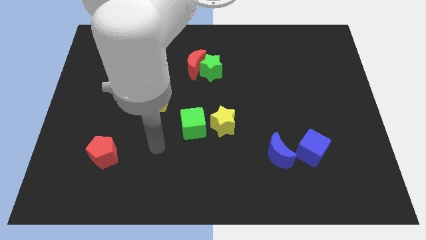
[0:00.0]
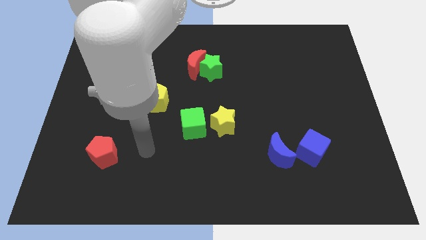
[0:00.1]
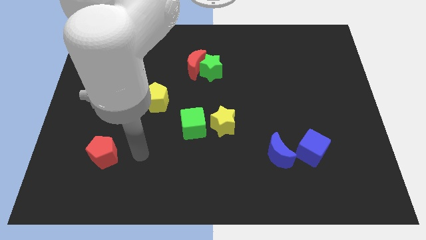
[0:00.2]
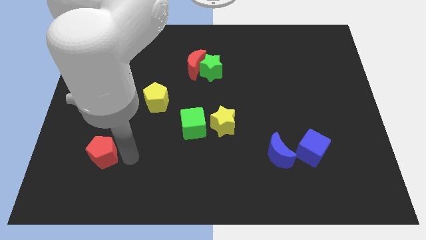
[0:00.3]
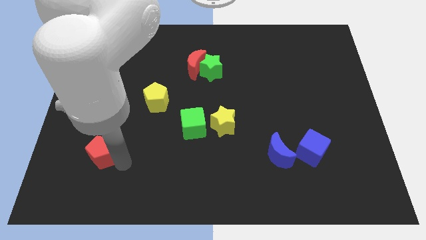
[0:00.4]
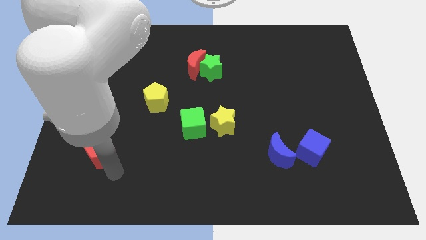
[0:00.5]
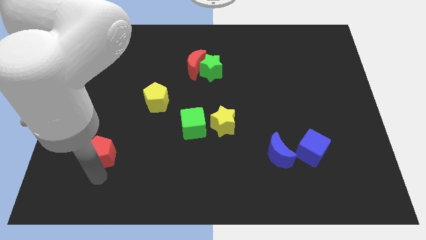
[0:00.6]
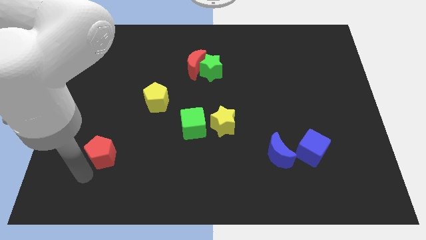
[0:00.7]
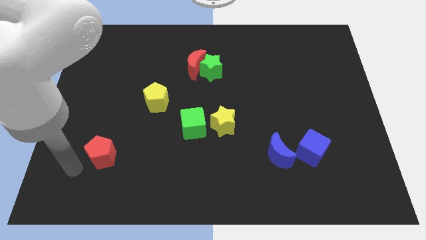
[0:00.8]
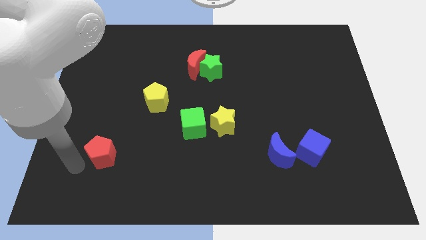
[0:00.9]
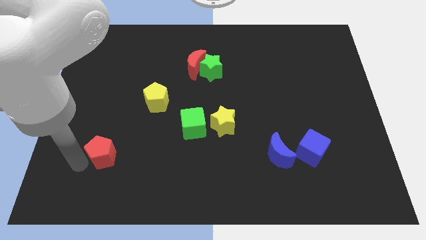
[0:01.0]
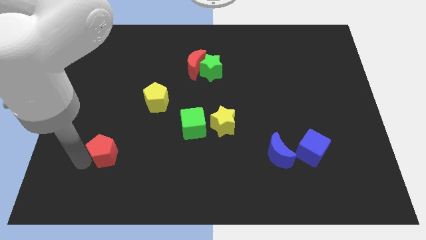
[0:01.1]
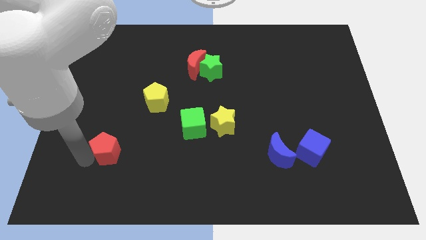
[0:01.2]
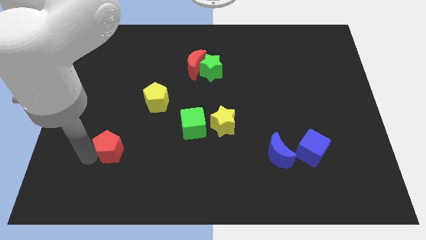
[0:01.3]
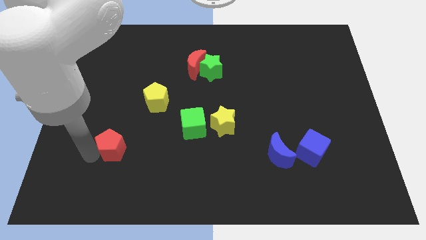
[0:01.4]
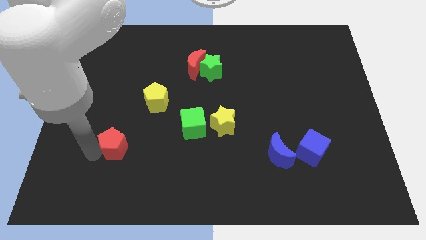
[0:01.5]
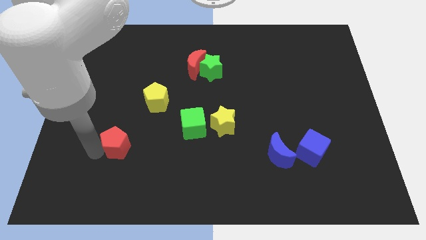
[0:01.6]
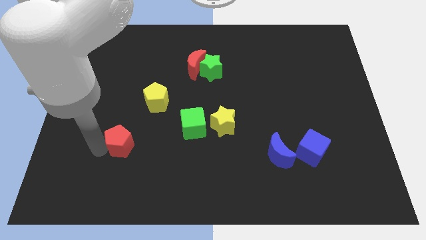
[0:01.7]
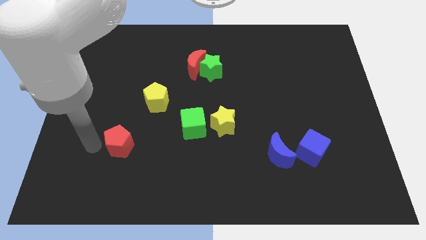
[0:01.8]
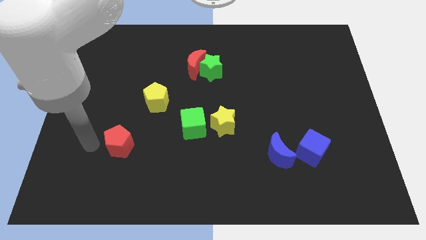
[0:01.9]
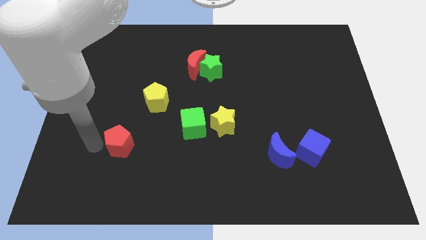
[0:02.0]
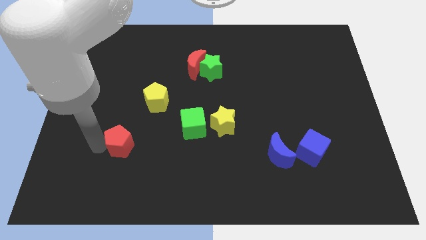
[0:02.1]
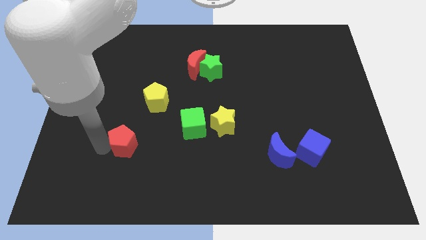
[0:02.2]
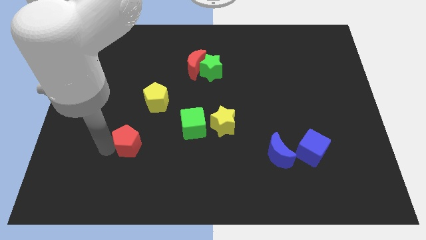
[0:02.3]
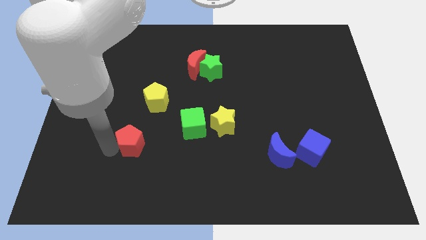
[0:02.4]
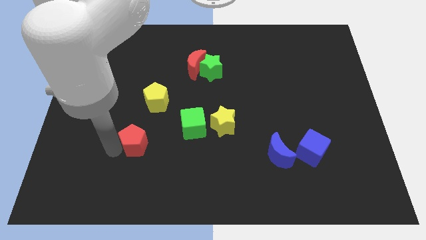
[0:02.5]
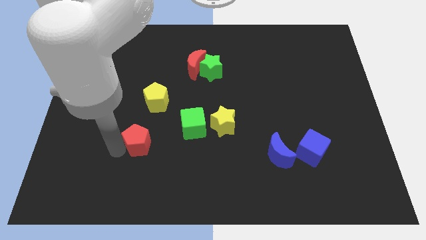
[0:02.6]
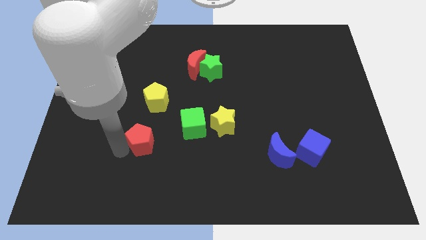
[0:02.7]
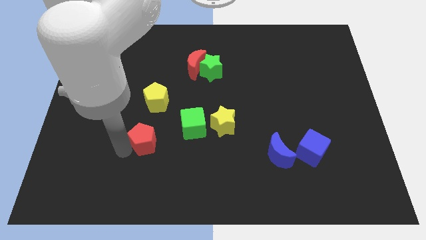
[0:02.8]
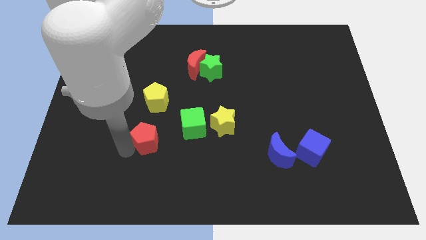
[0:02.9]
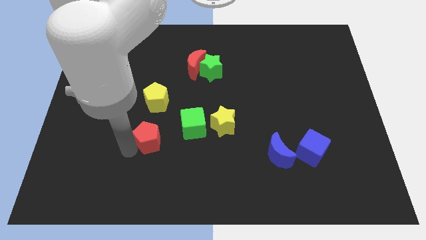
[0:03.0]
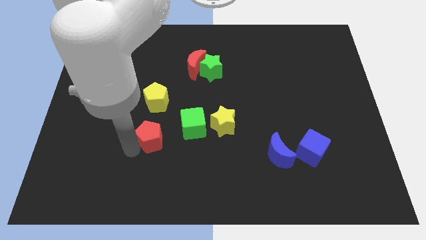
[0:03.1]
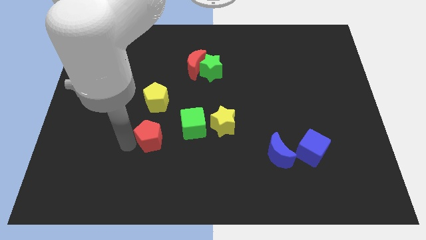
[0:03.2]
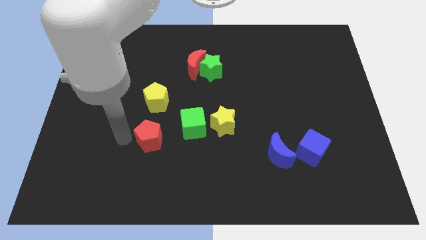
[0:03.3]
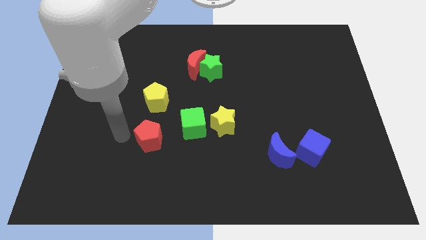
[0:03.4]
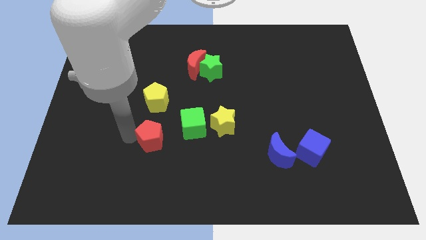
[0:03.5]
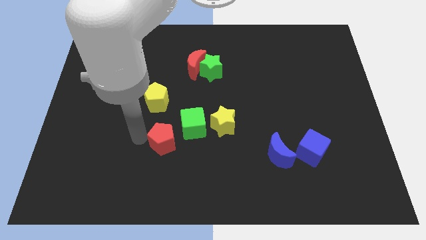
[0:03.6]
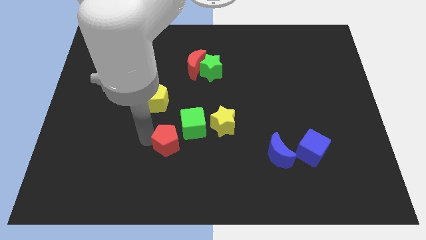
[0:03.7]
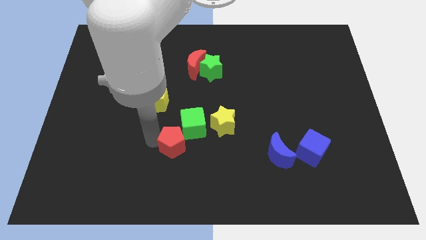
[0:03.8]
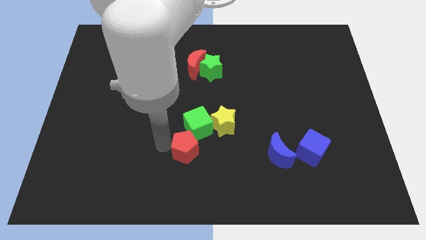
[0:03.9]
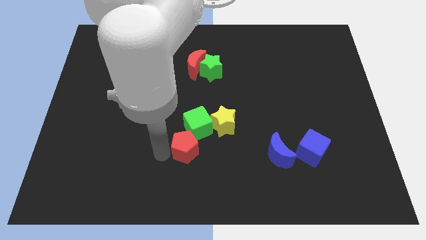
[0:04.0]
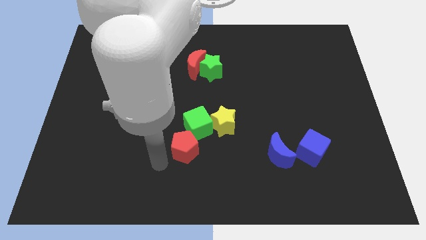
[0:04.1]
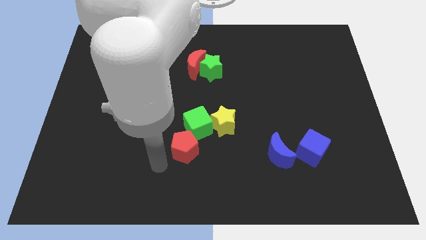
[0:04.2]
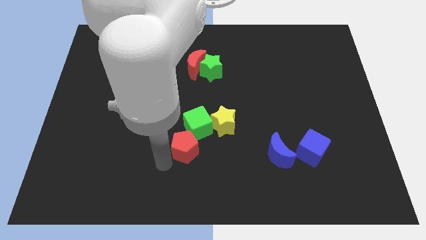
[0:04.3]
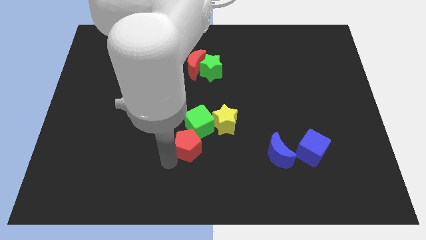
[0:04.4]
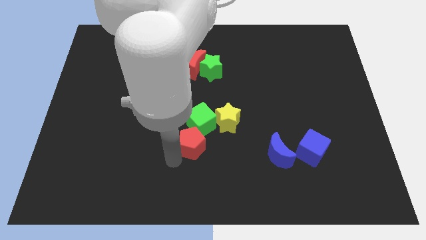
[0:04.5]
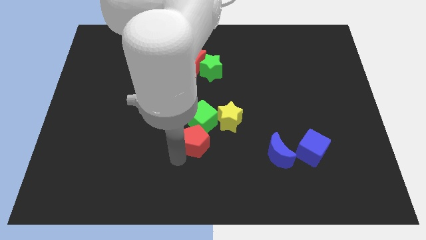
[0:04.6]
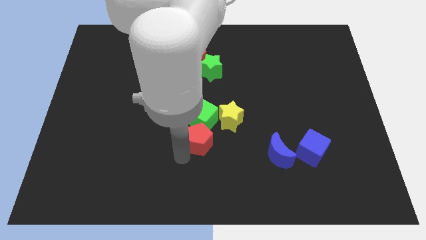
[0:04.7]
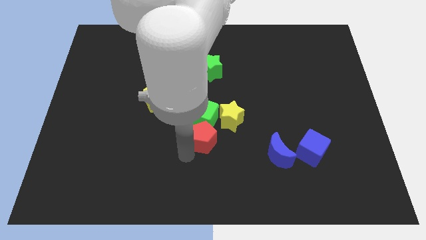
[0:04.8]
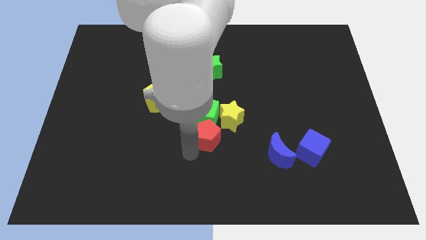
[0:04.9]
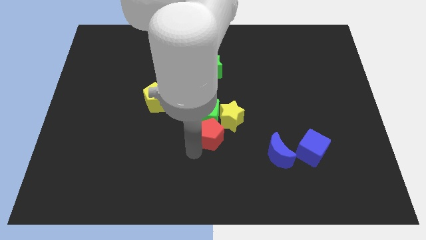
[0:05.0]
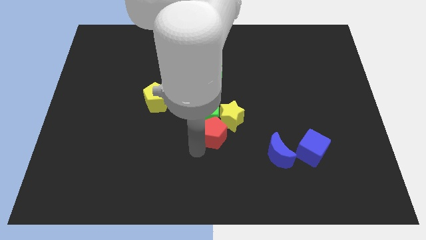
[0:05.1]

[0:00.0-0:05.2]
put the red pentagon to the yellow star

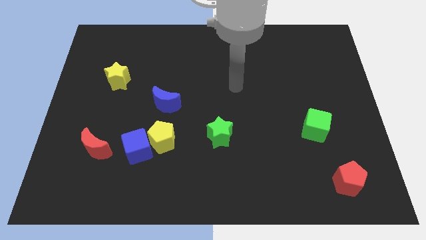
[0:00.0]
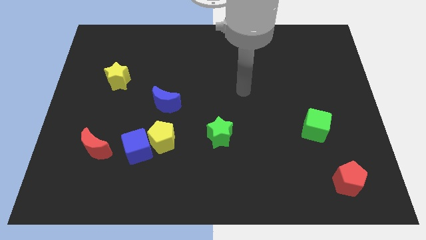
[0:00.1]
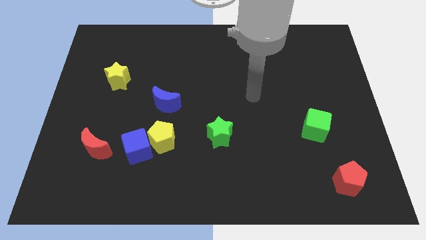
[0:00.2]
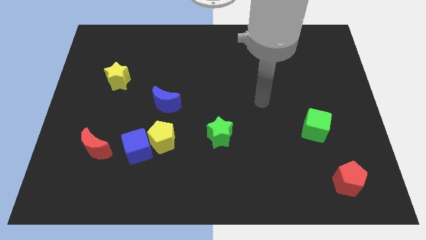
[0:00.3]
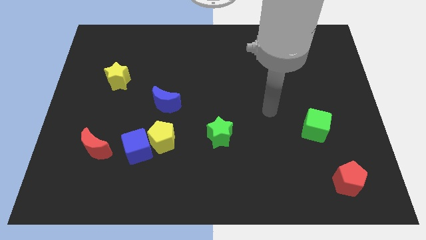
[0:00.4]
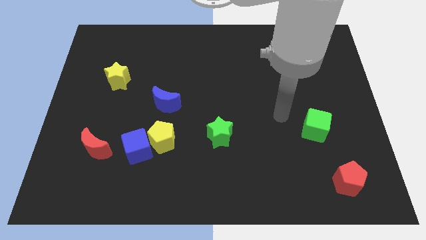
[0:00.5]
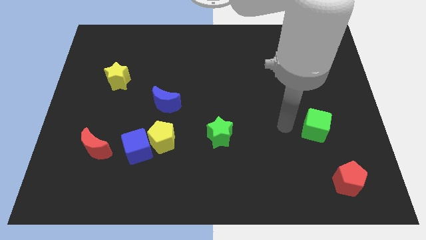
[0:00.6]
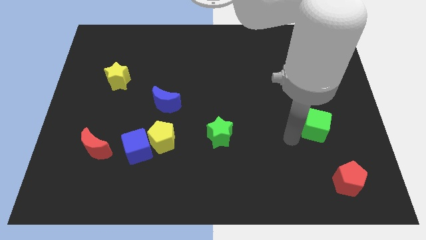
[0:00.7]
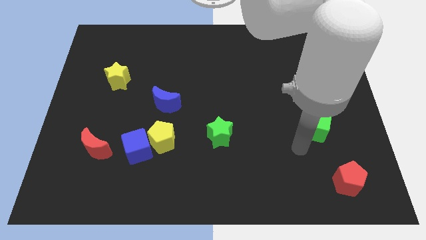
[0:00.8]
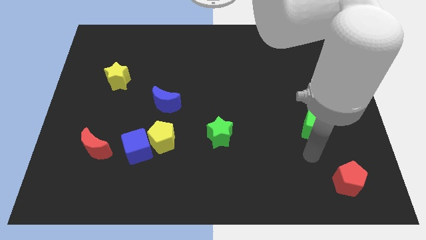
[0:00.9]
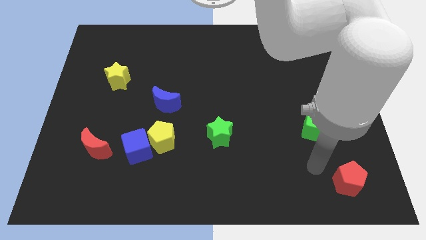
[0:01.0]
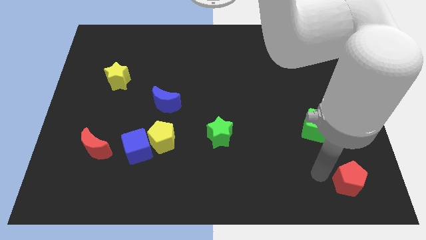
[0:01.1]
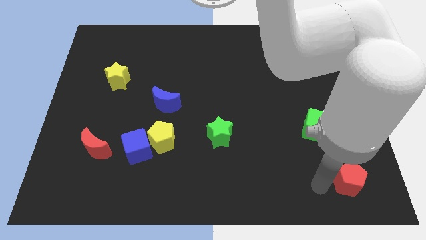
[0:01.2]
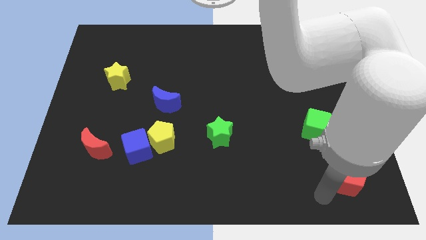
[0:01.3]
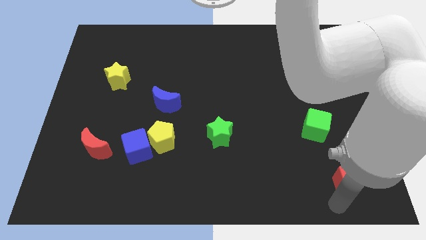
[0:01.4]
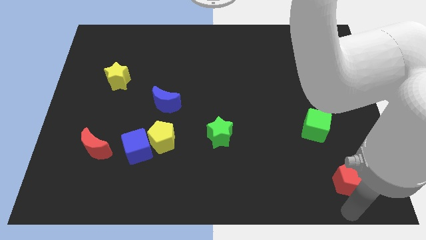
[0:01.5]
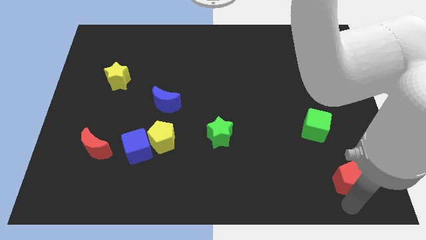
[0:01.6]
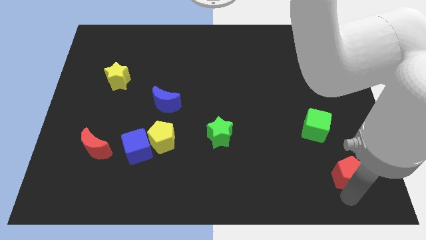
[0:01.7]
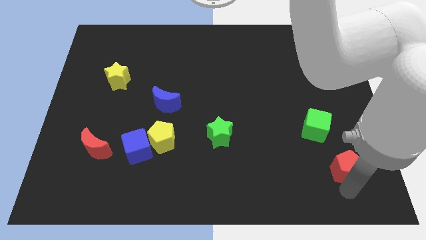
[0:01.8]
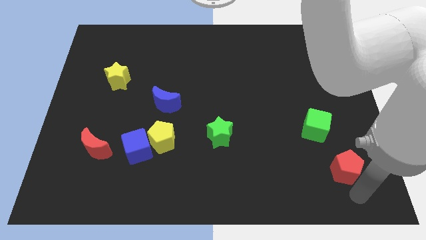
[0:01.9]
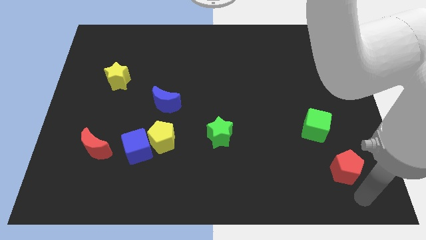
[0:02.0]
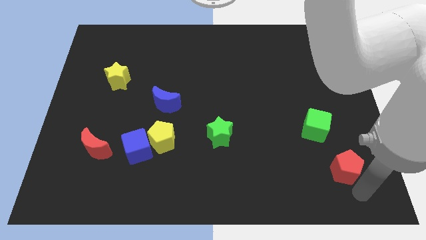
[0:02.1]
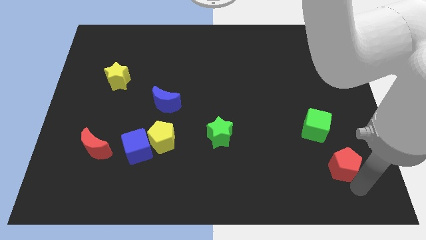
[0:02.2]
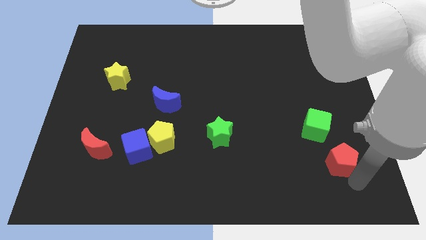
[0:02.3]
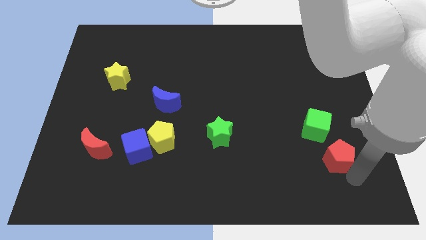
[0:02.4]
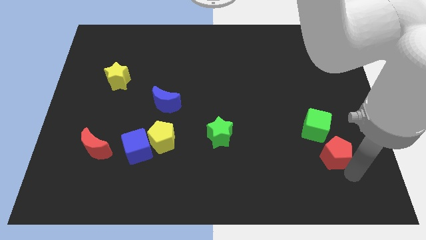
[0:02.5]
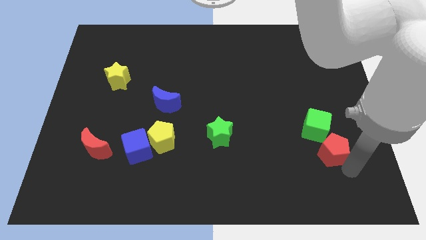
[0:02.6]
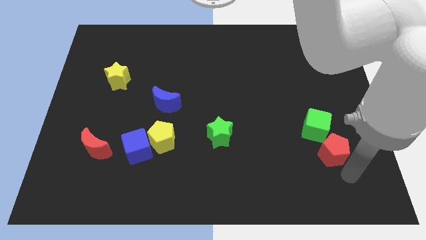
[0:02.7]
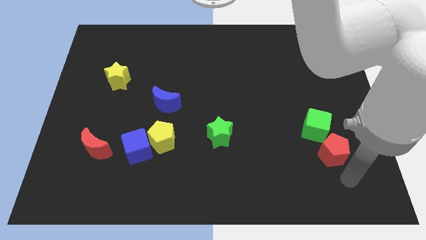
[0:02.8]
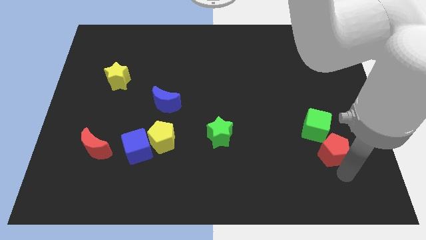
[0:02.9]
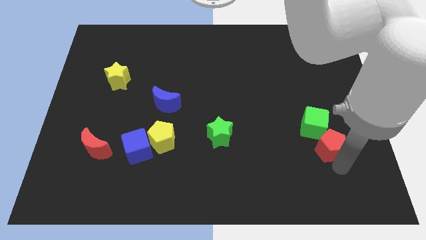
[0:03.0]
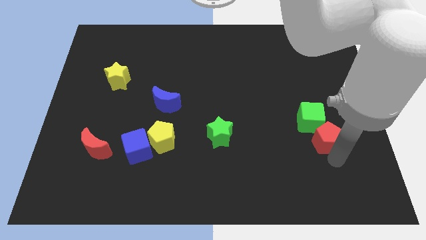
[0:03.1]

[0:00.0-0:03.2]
put the red pentagon towards the green cube
